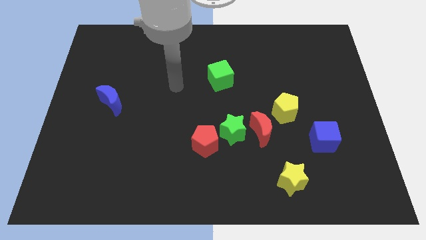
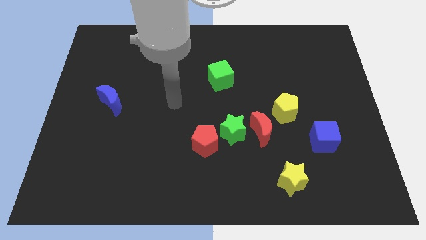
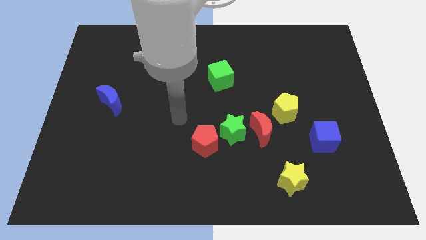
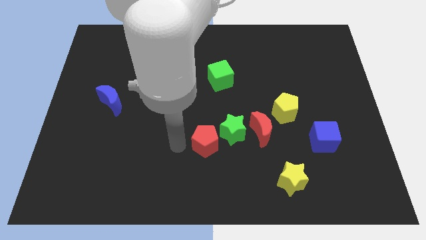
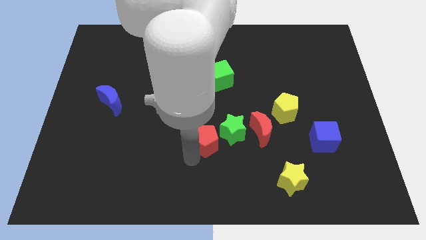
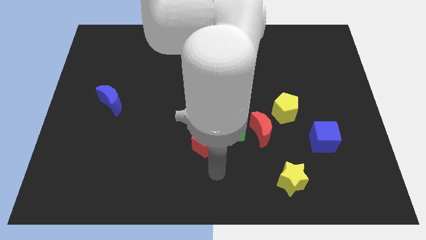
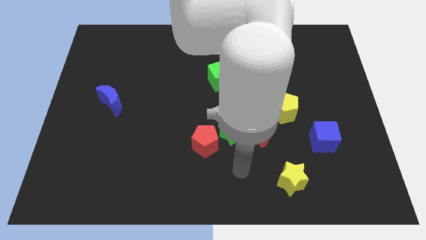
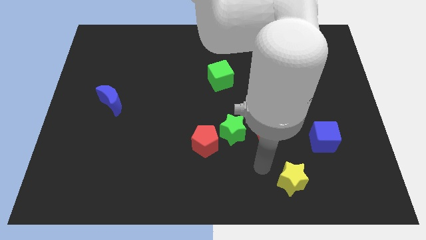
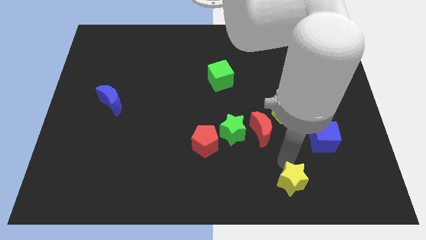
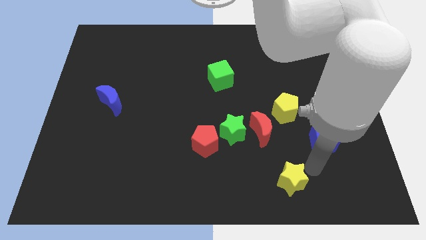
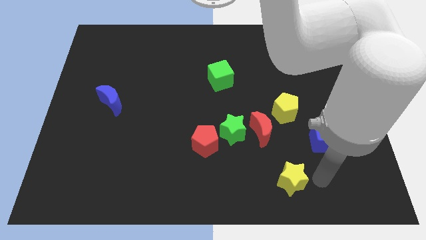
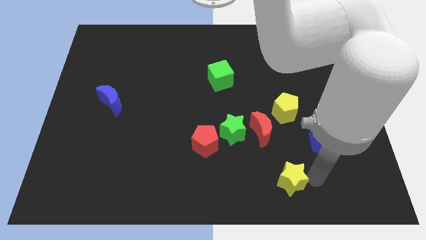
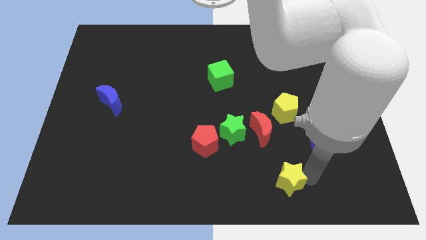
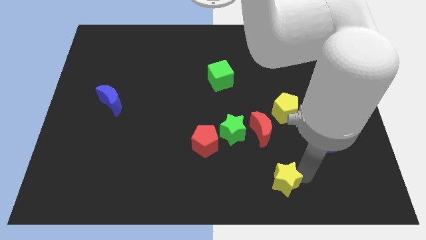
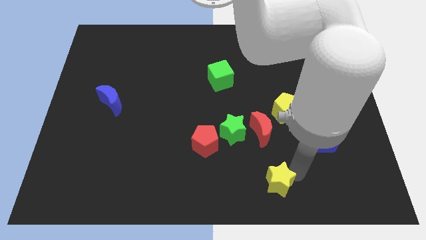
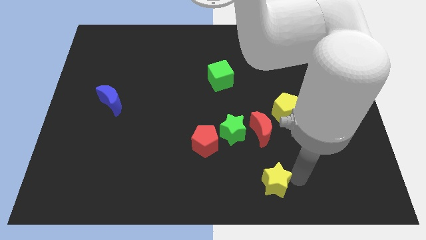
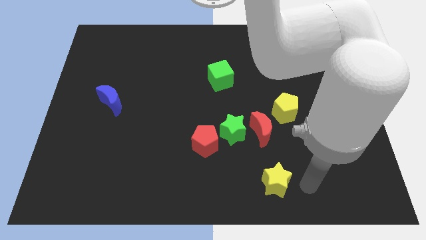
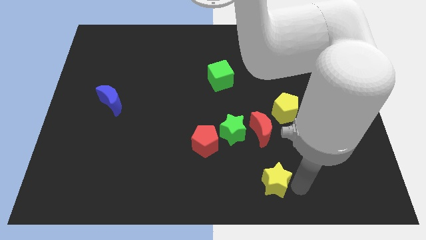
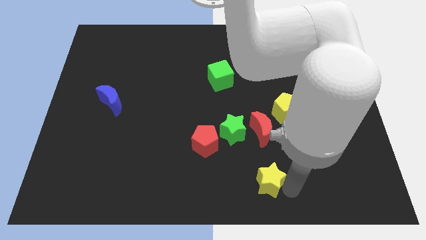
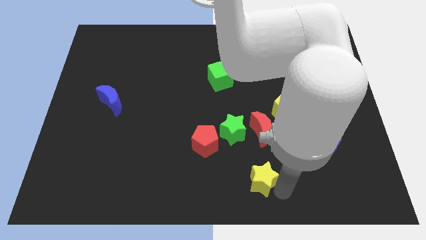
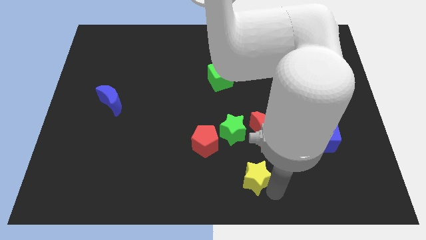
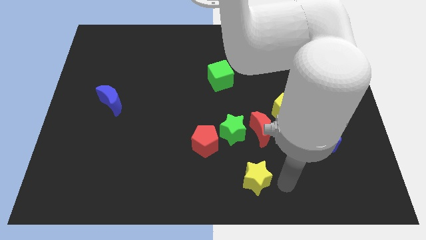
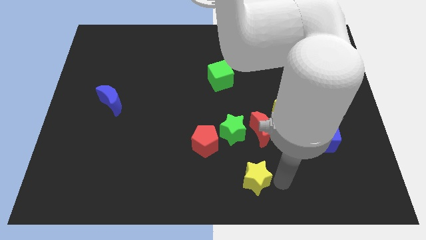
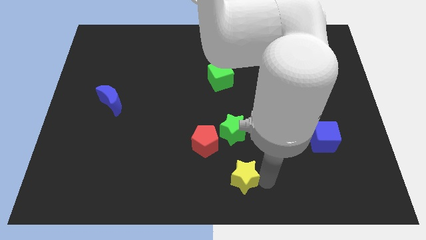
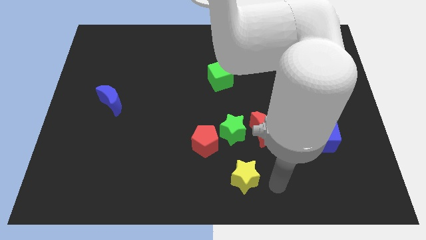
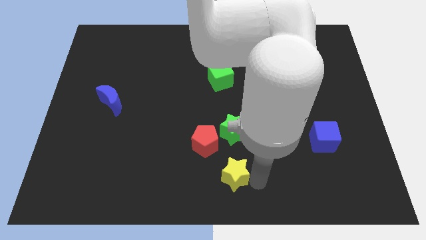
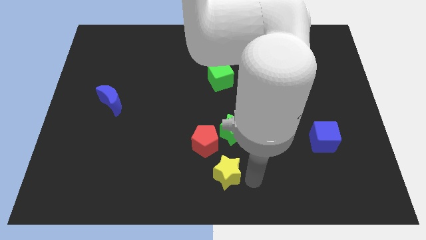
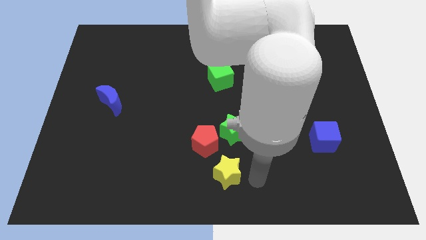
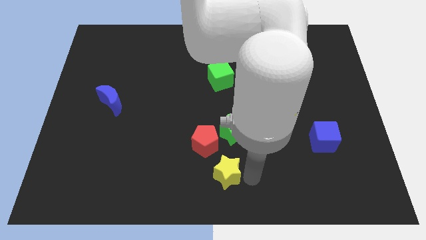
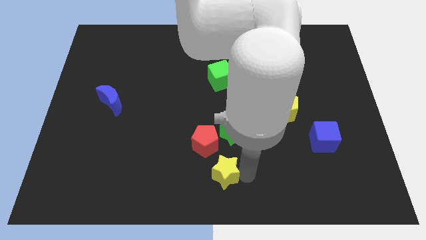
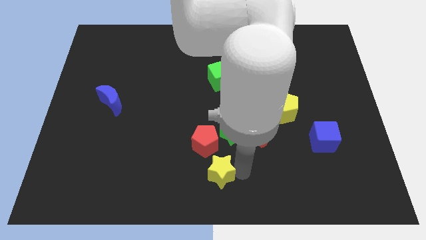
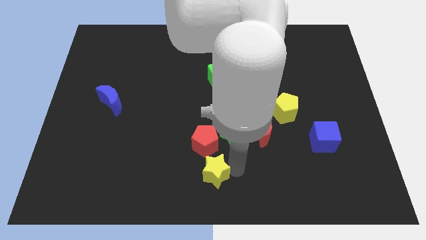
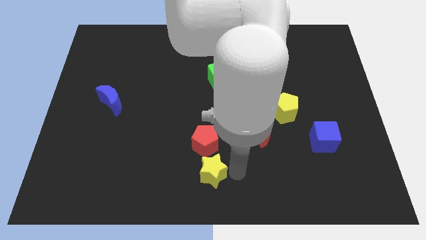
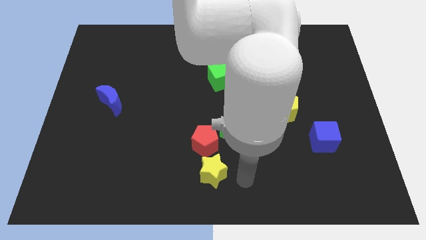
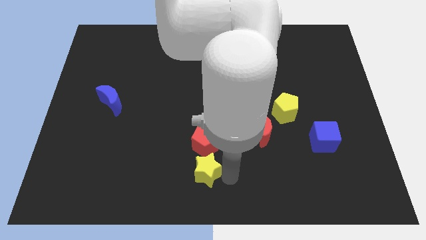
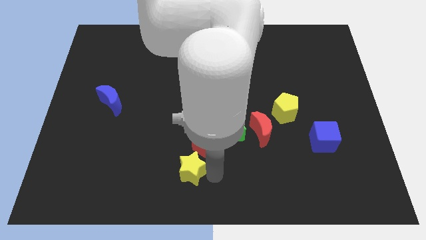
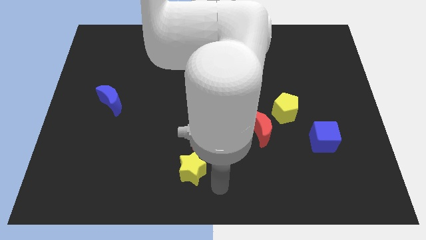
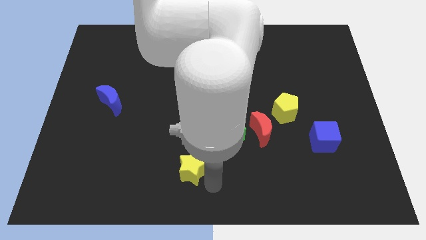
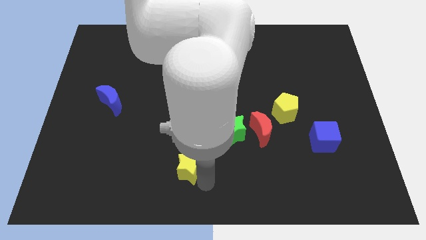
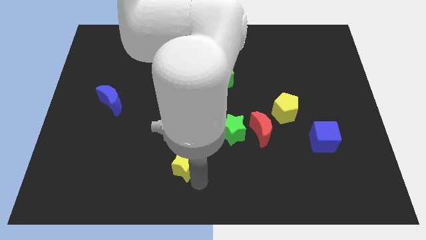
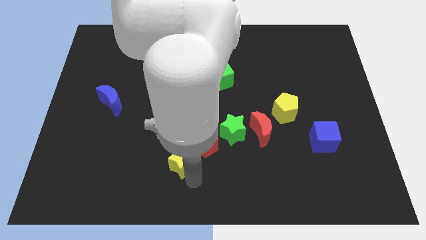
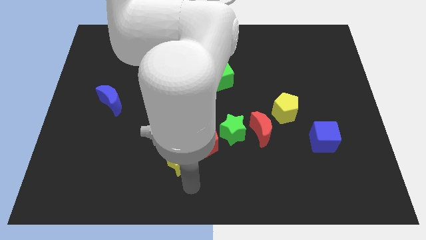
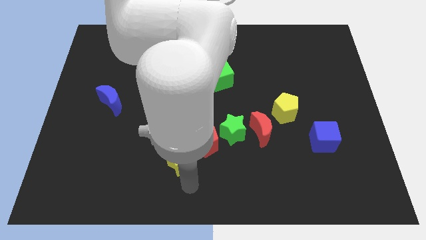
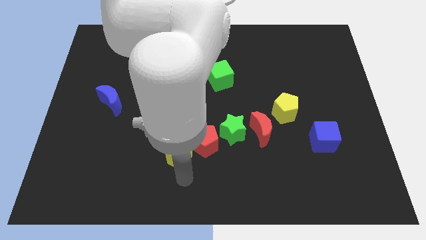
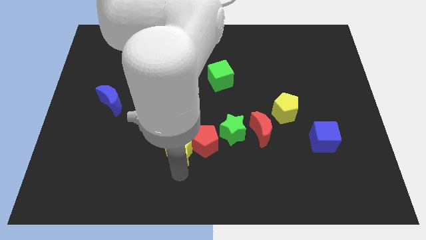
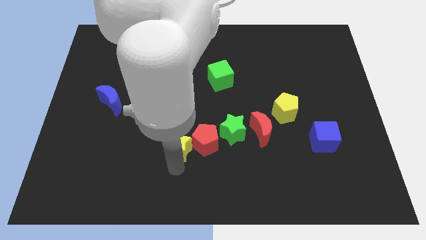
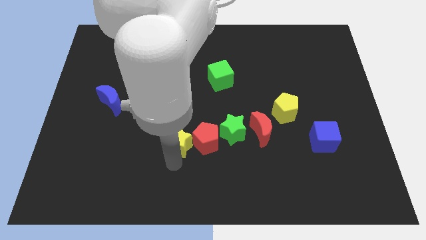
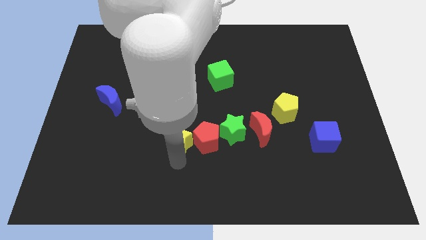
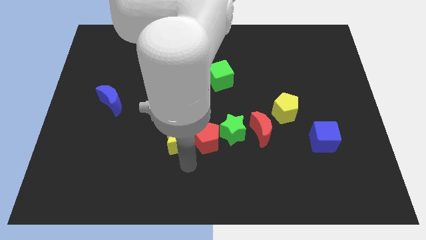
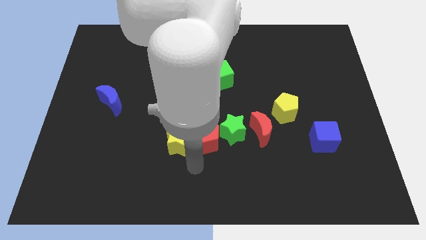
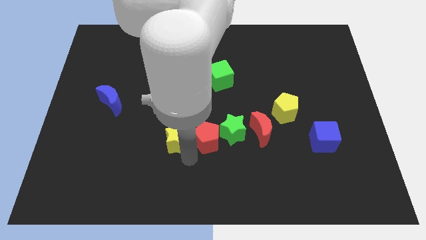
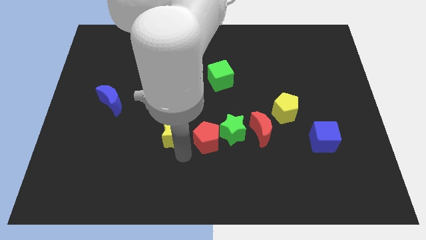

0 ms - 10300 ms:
slide the yellow star diagonally upwards and left

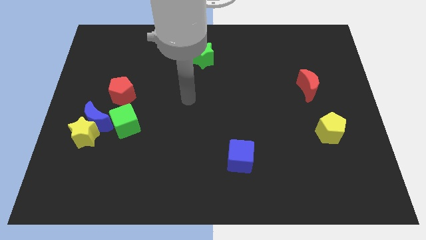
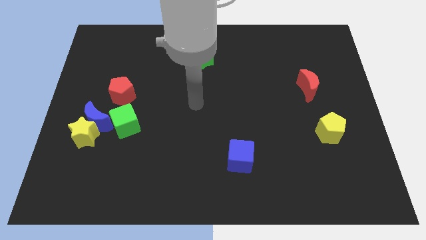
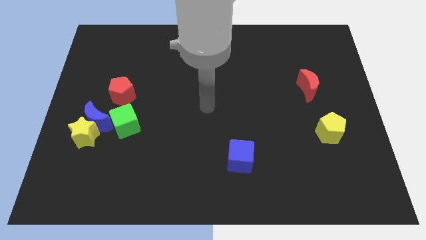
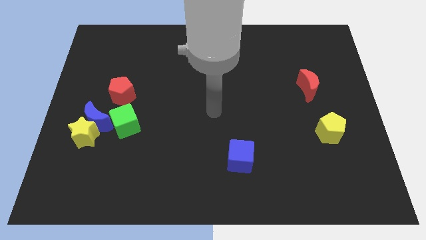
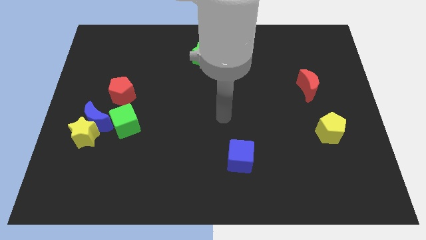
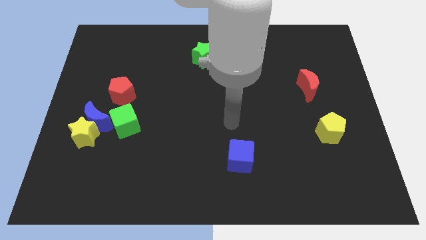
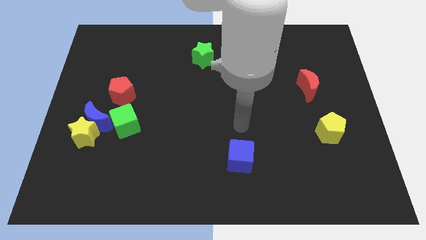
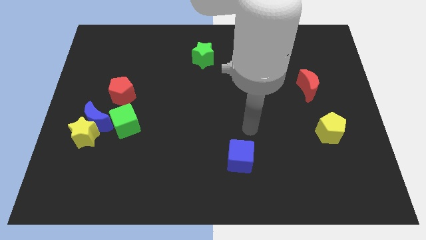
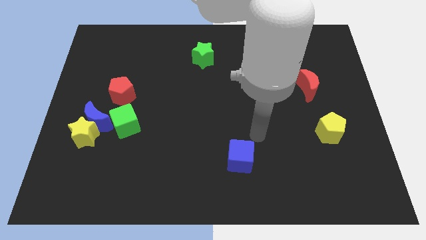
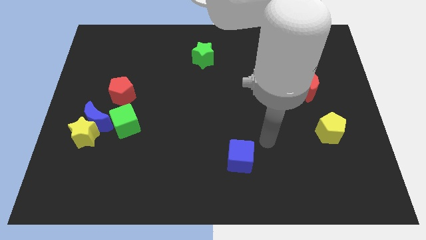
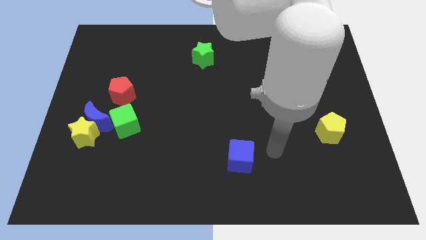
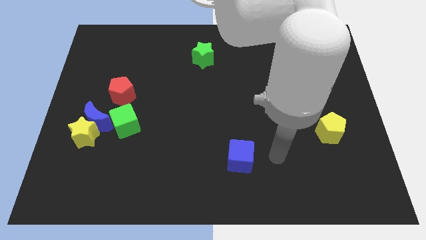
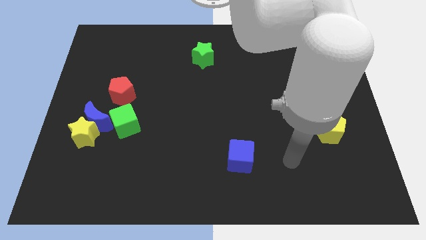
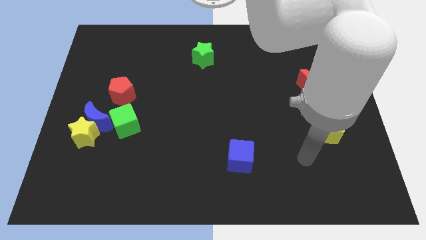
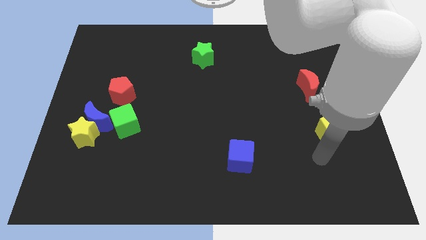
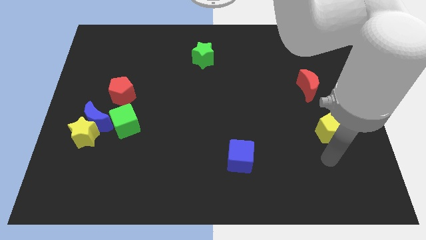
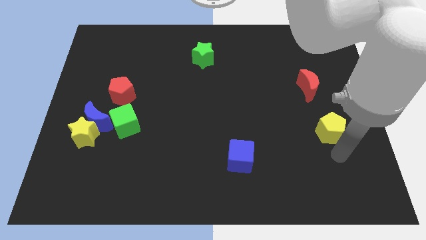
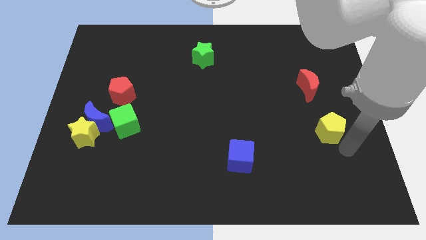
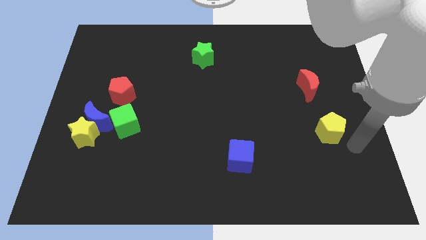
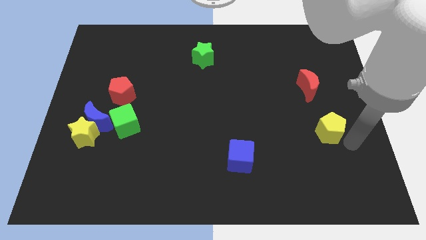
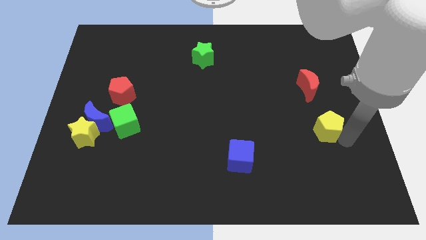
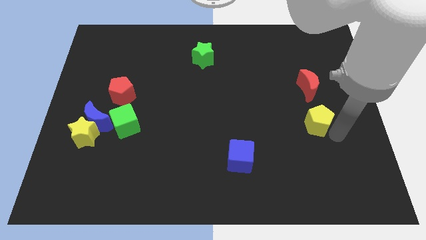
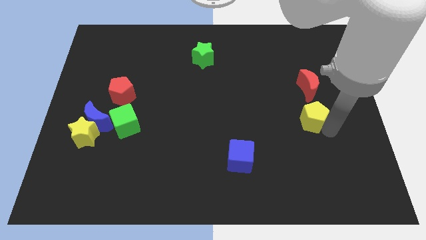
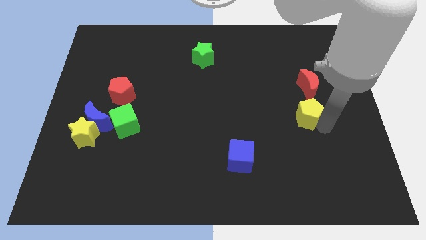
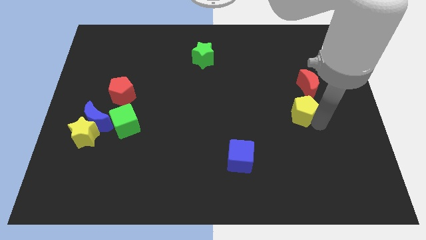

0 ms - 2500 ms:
move the yellow pentagon diagonally up and left somewhat

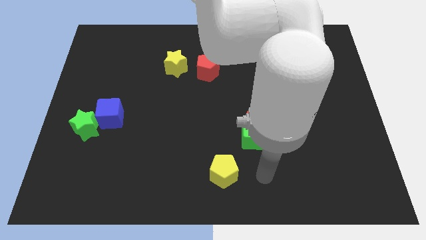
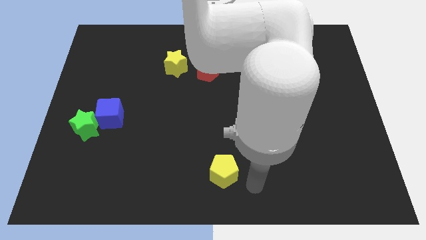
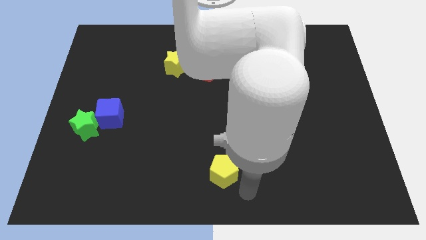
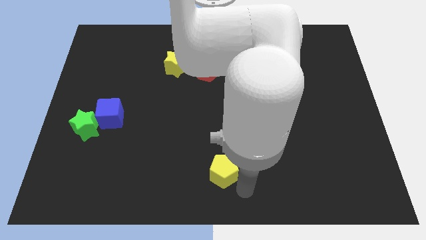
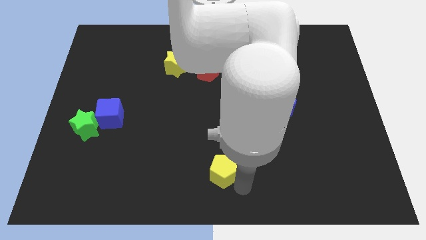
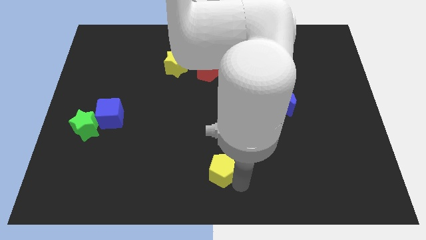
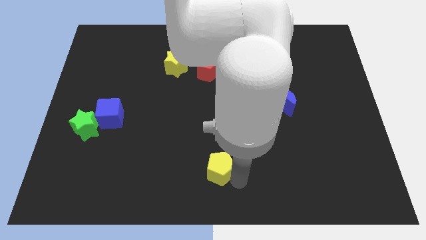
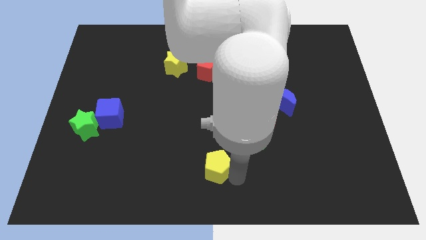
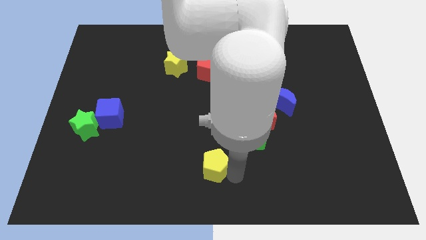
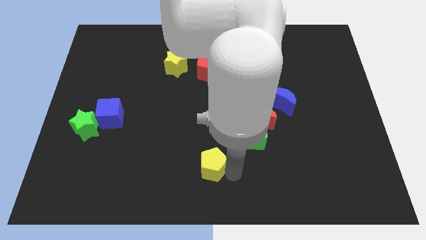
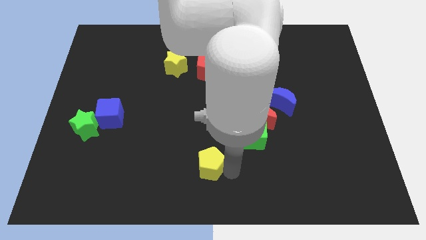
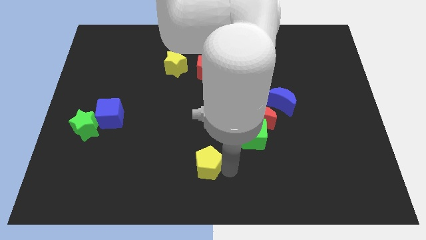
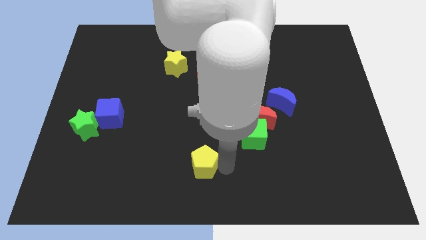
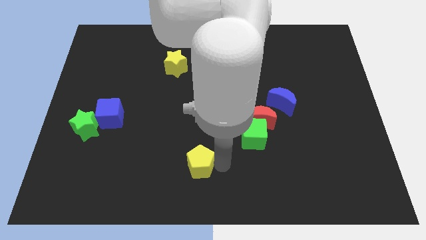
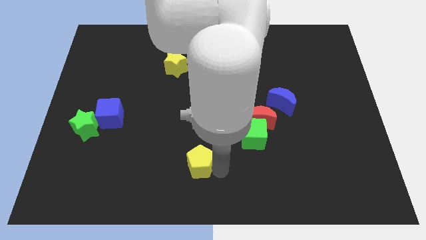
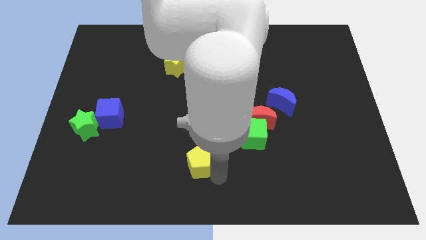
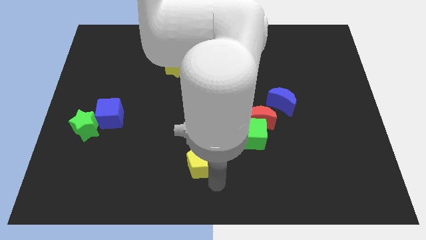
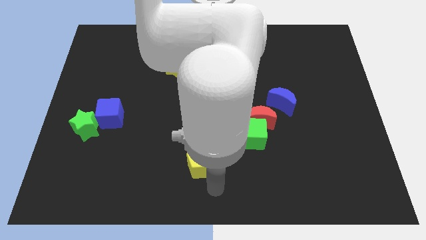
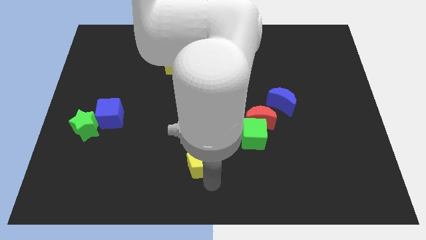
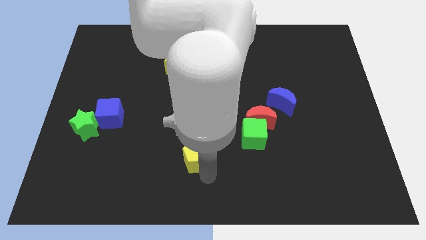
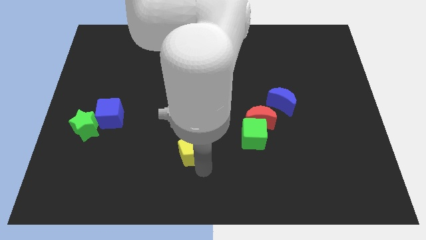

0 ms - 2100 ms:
move the yellow pentagon diagonally upwards and to the left a little
